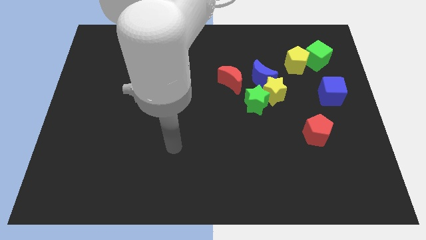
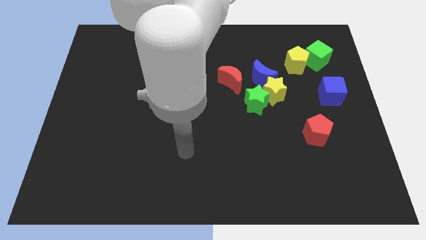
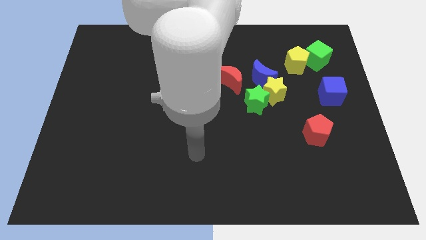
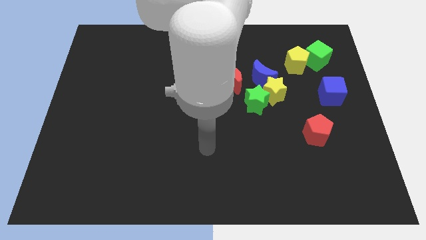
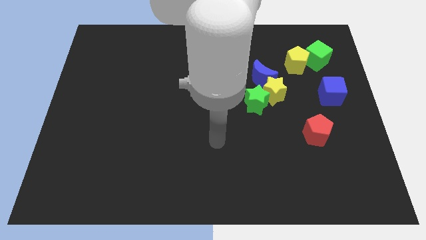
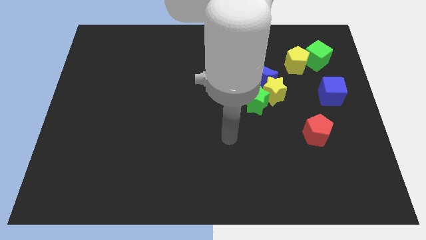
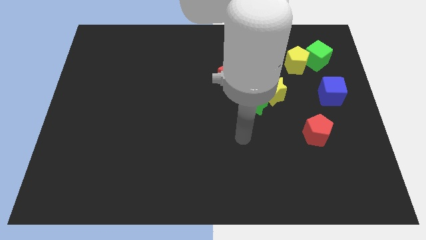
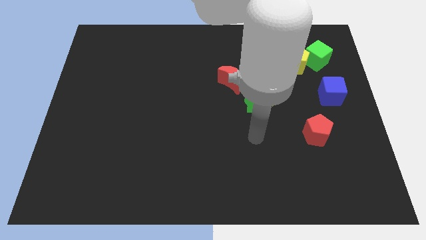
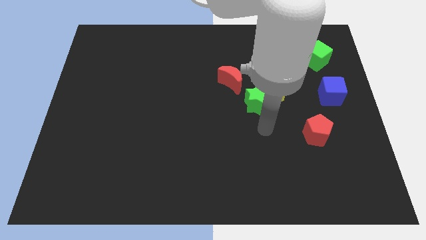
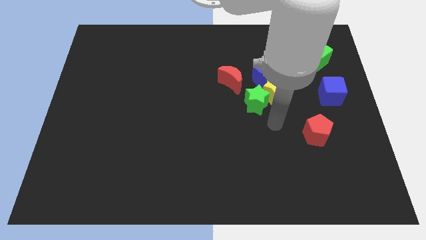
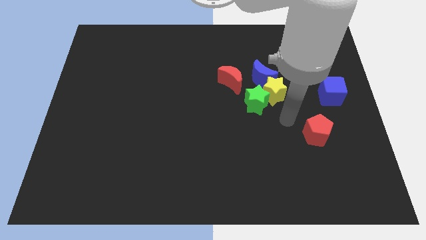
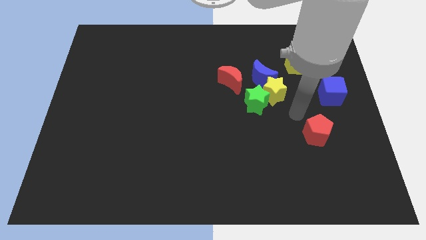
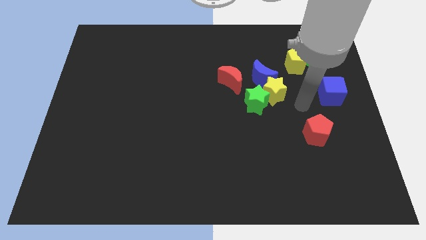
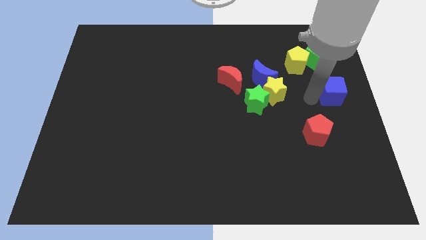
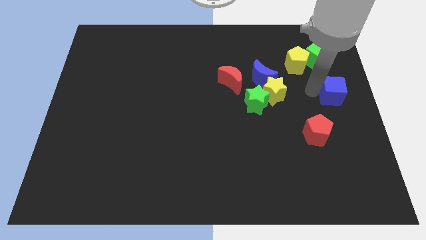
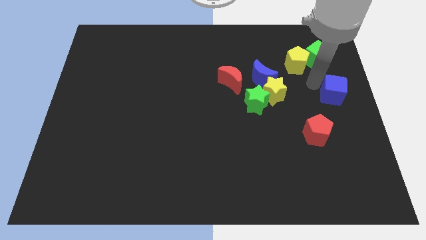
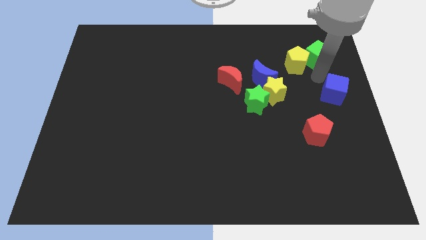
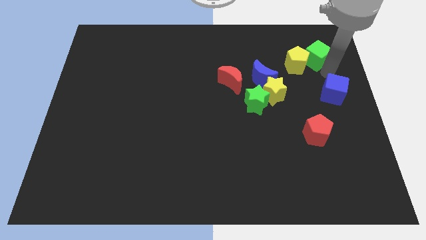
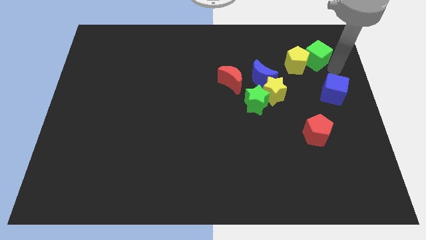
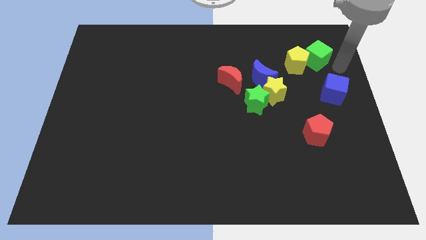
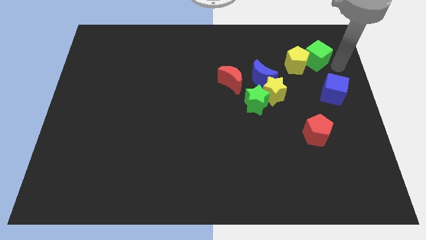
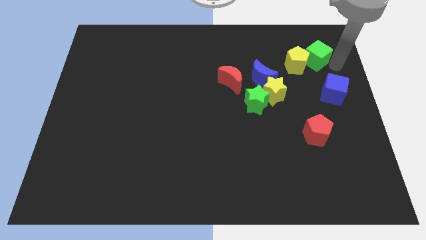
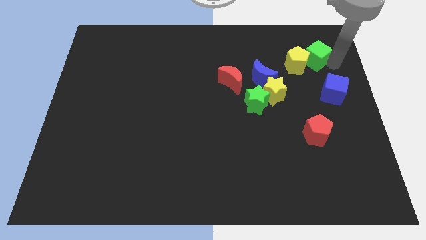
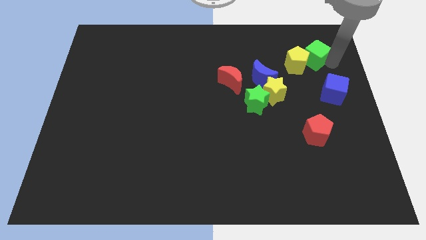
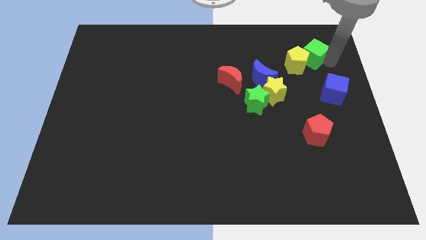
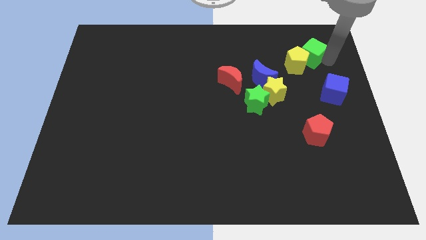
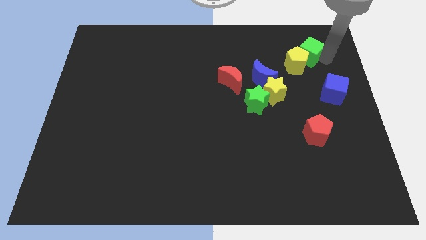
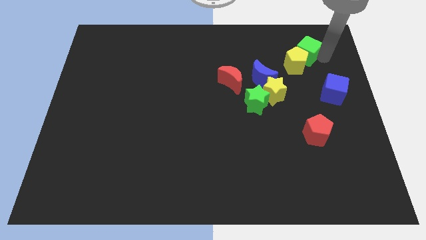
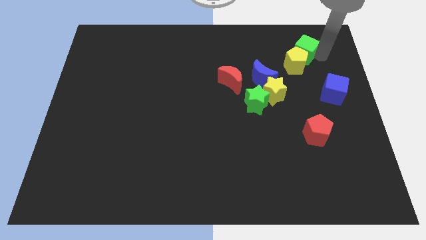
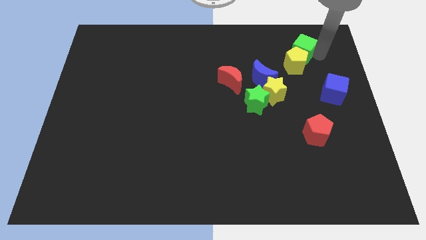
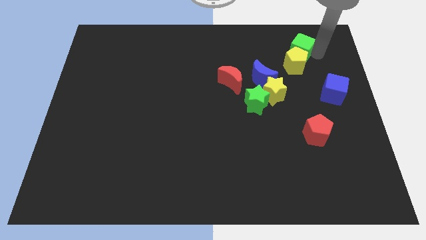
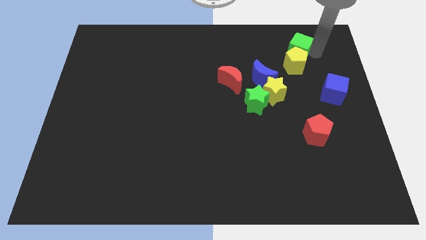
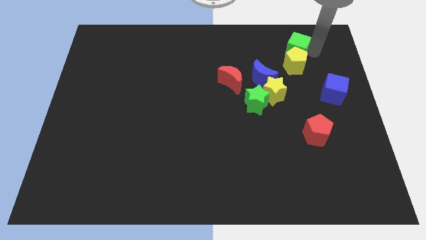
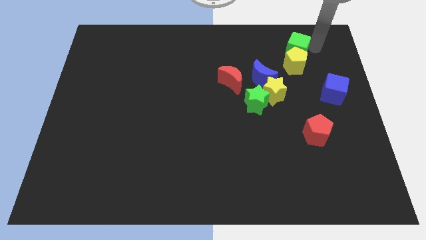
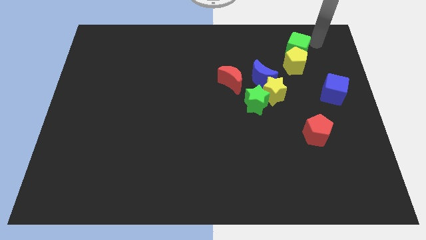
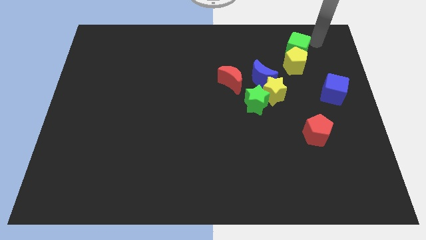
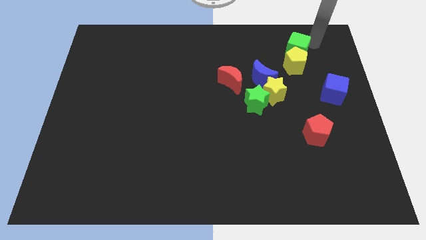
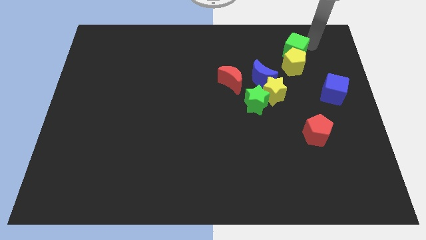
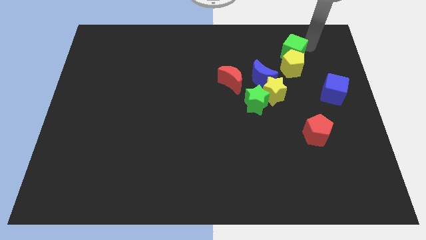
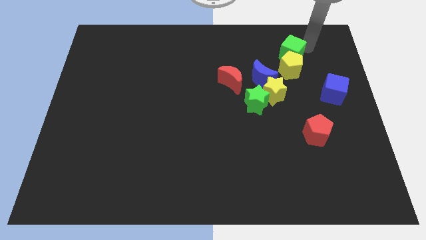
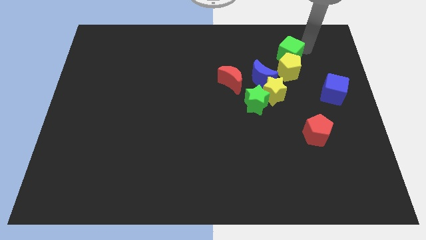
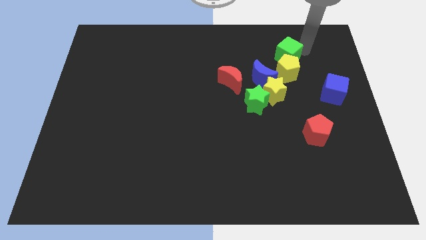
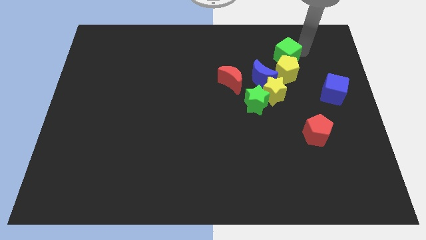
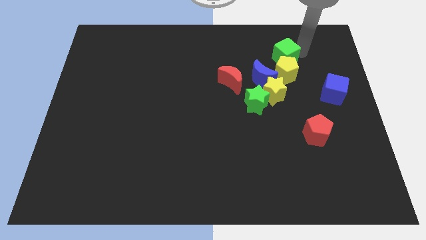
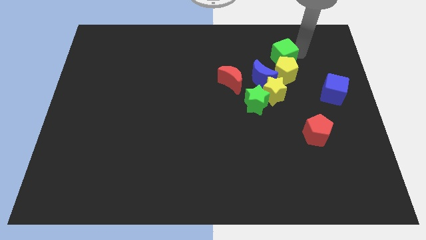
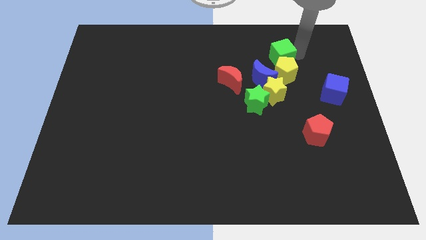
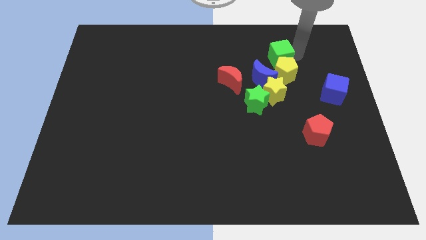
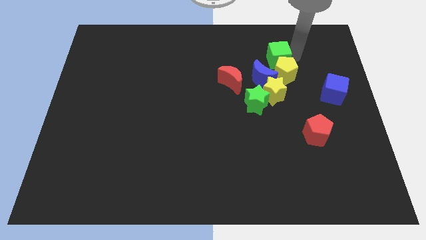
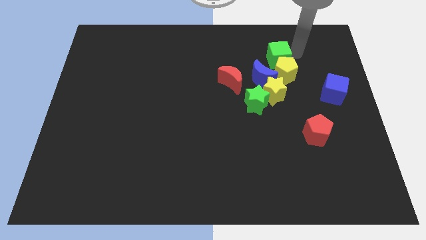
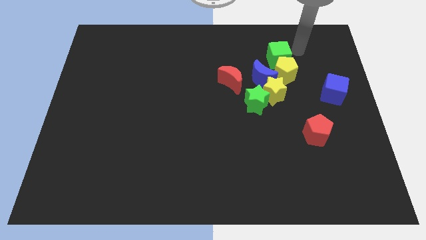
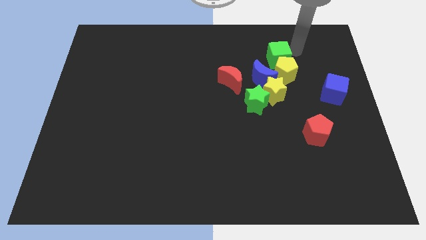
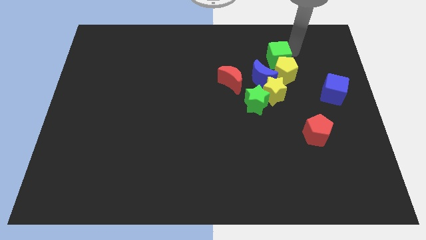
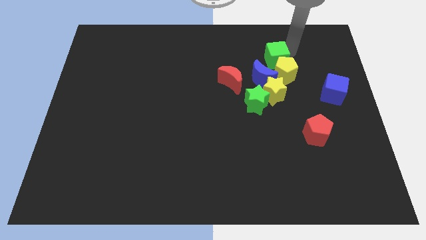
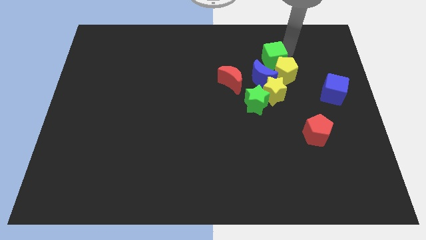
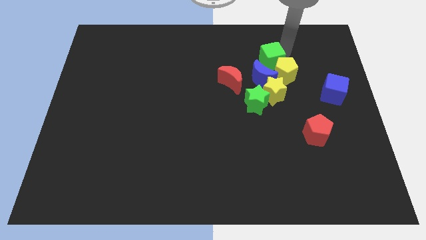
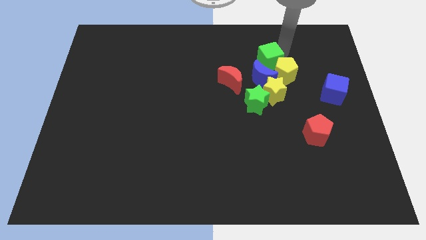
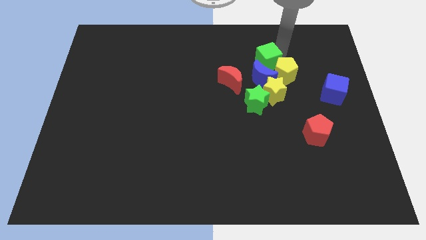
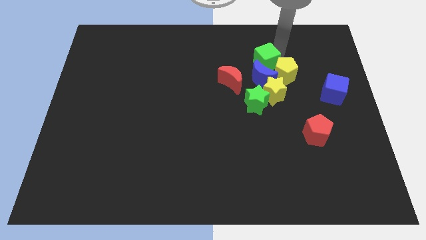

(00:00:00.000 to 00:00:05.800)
push the green cube towards the blue moon

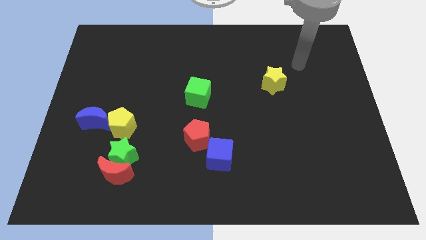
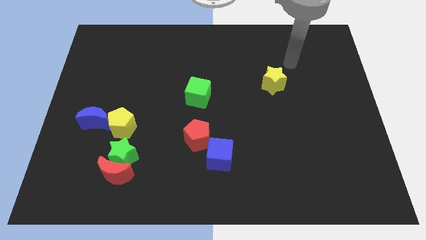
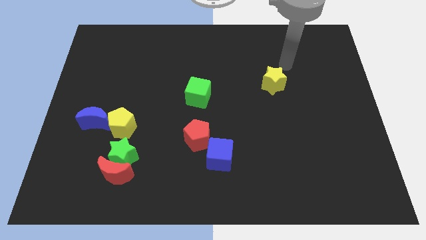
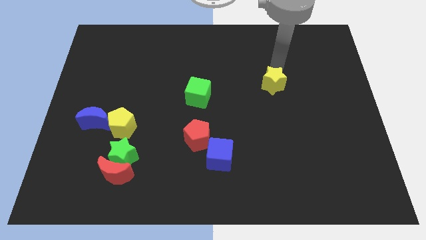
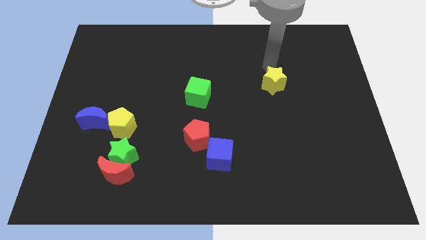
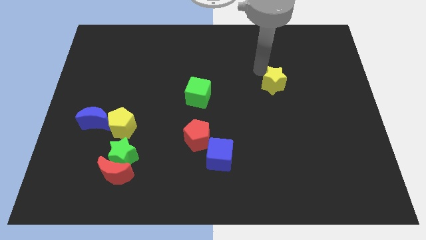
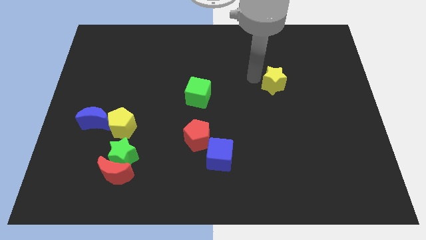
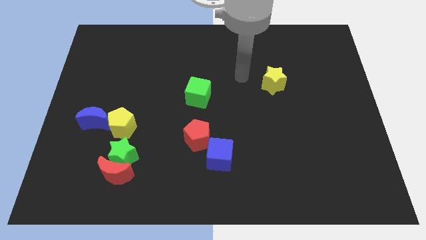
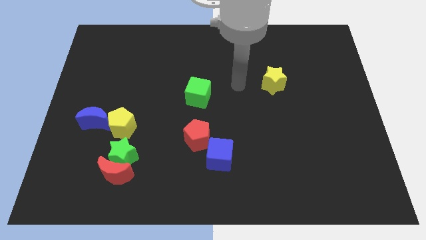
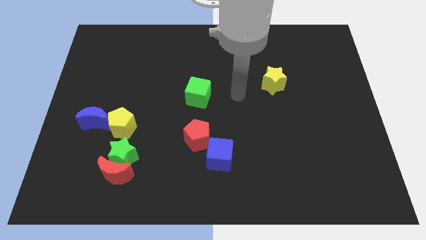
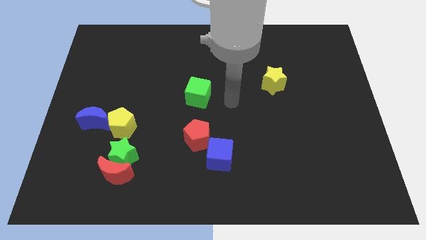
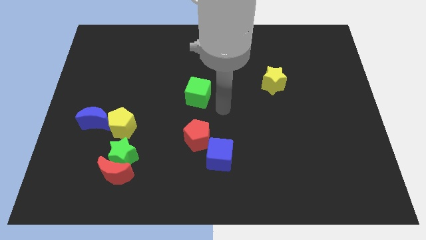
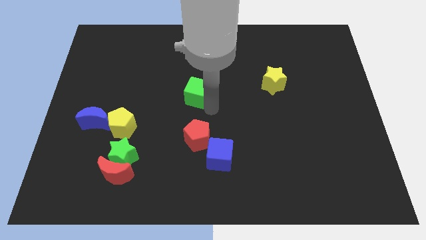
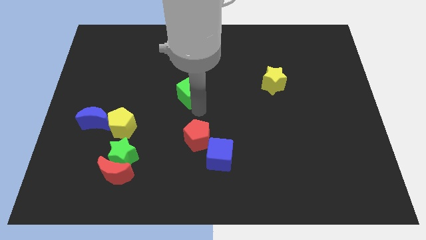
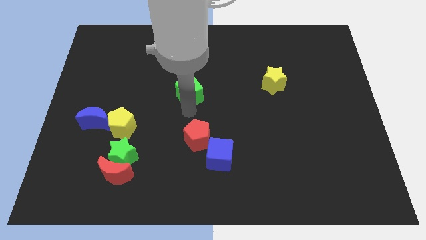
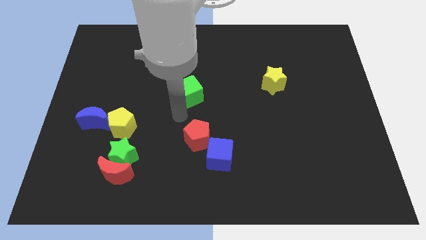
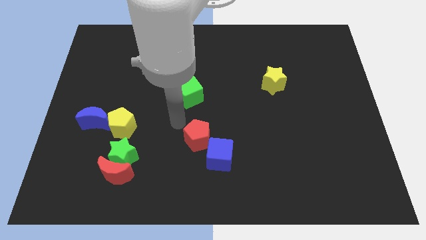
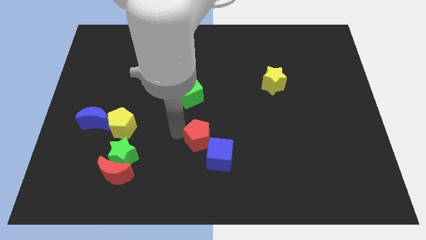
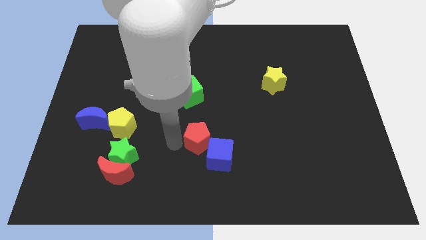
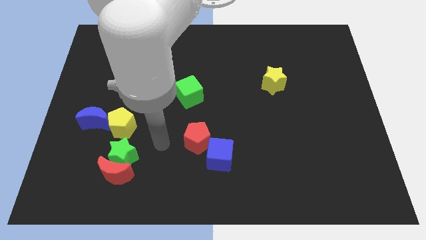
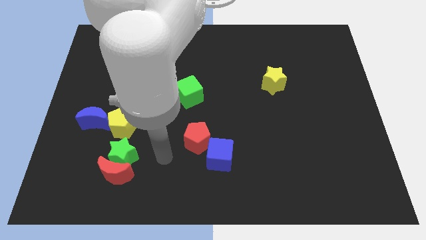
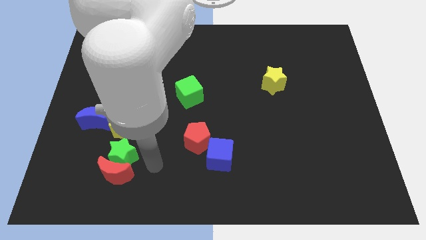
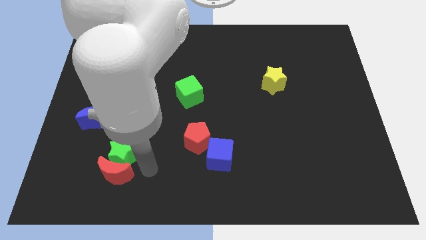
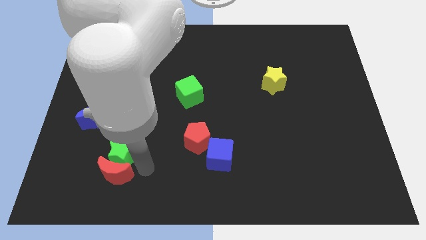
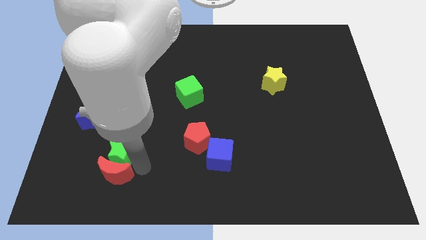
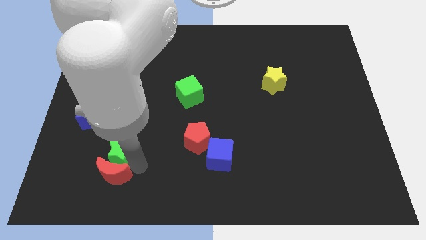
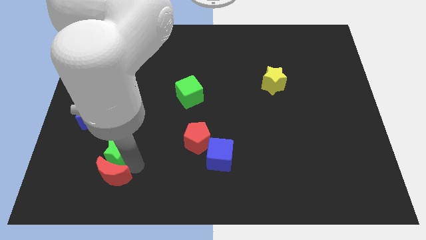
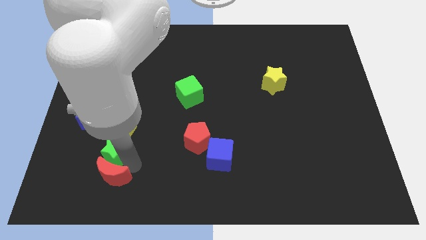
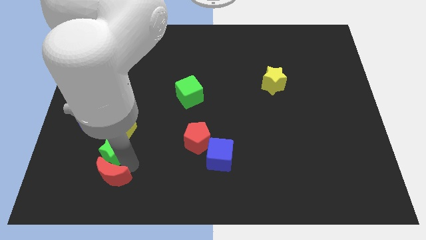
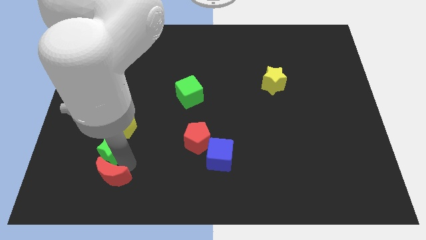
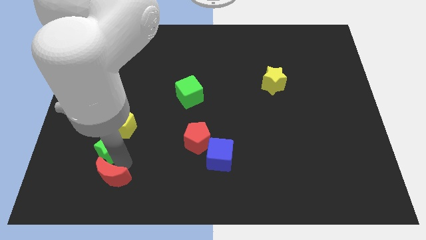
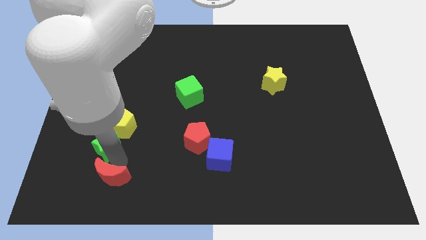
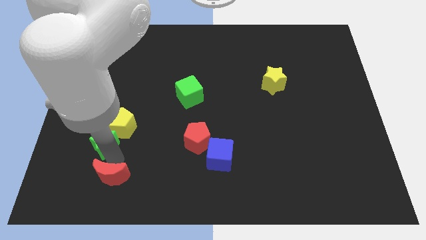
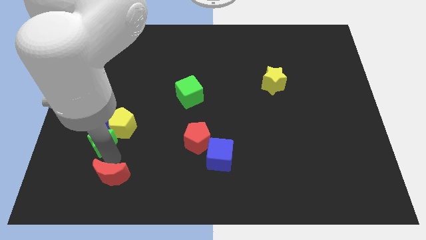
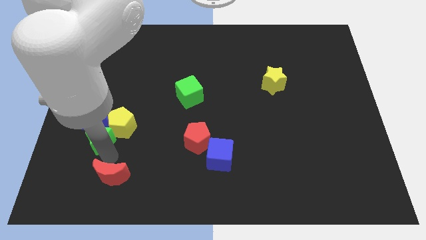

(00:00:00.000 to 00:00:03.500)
put the green star to the blue moon
